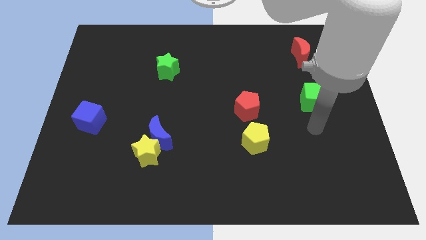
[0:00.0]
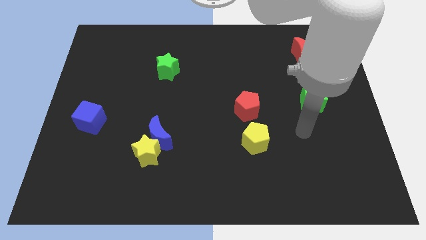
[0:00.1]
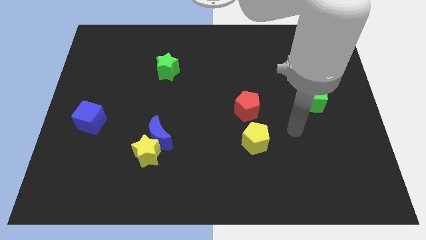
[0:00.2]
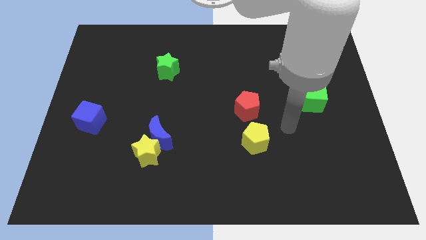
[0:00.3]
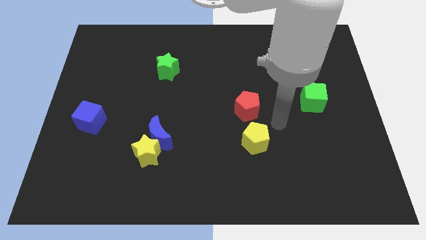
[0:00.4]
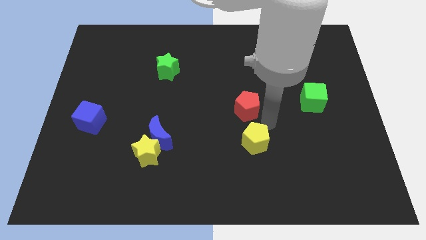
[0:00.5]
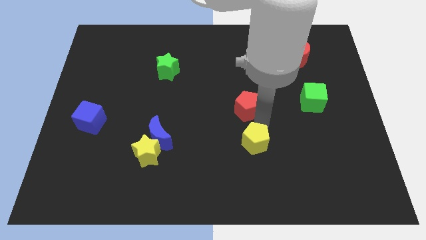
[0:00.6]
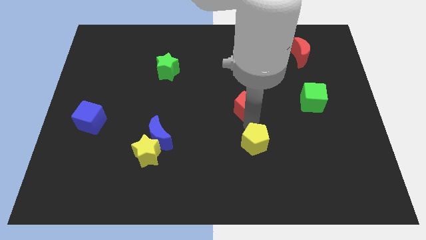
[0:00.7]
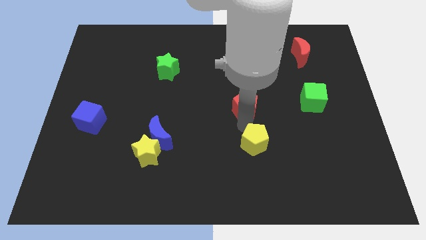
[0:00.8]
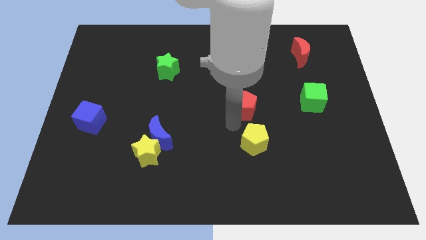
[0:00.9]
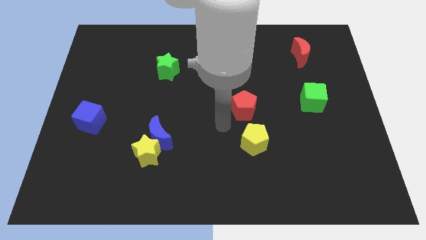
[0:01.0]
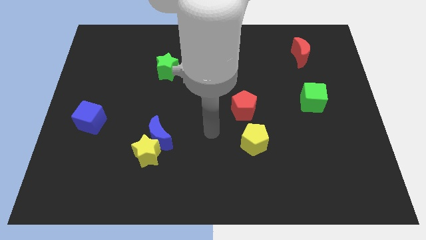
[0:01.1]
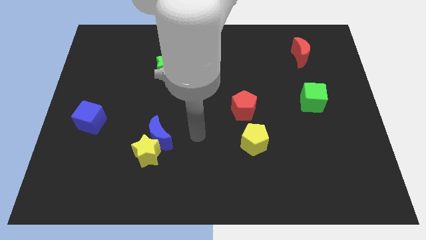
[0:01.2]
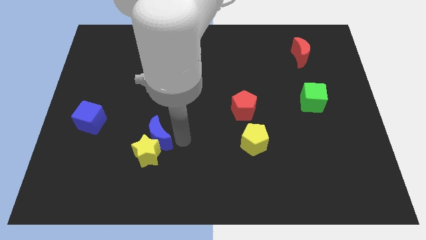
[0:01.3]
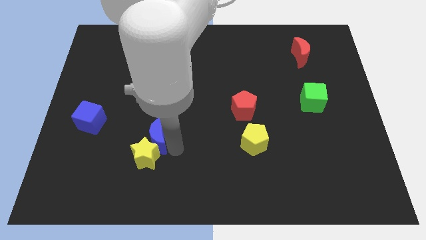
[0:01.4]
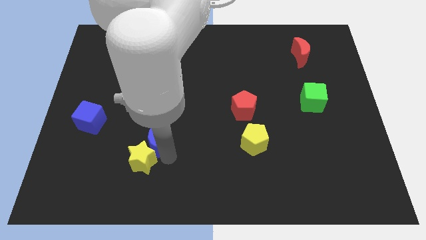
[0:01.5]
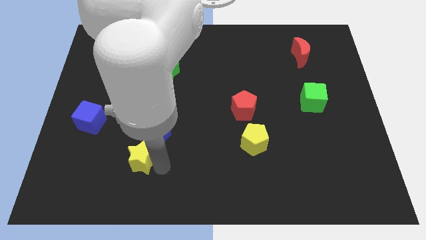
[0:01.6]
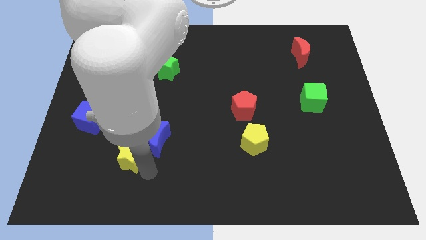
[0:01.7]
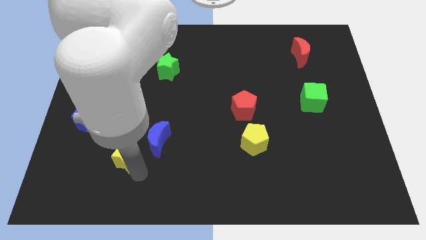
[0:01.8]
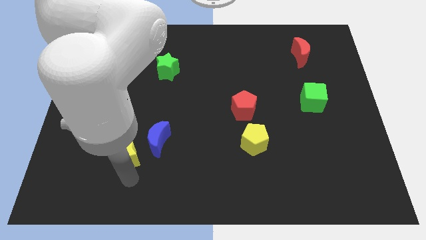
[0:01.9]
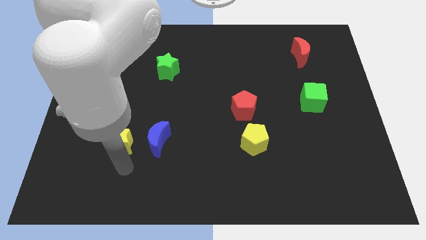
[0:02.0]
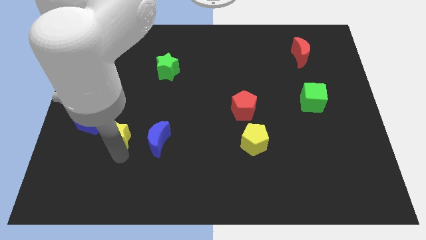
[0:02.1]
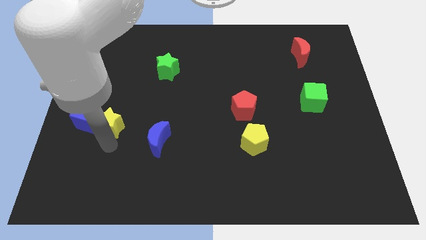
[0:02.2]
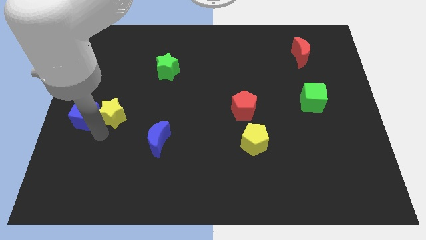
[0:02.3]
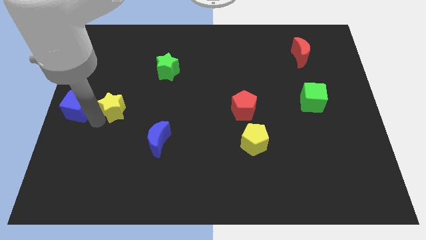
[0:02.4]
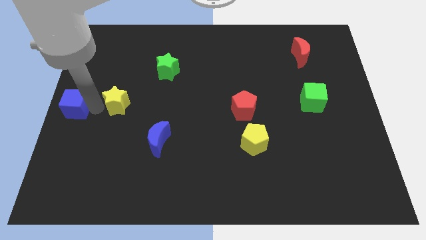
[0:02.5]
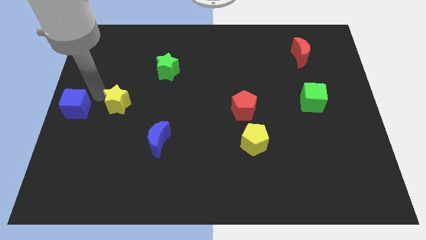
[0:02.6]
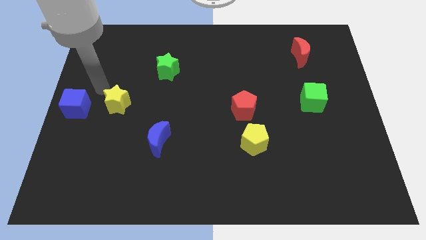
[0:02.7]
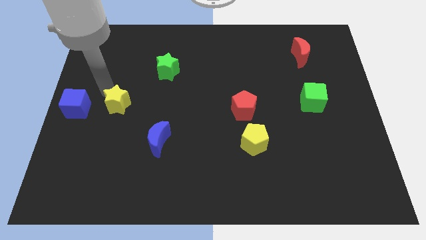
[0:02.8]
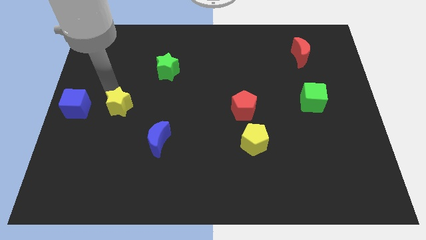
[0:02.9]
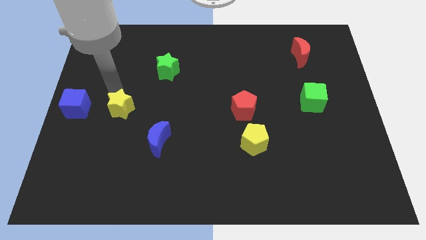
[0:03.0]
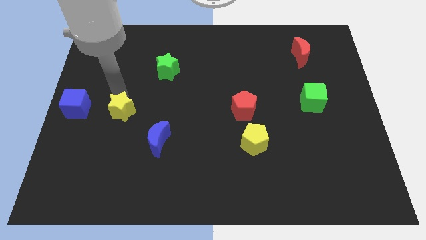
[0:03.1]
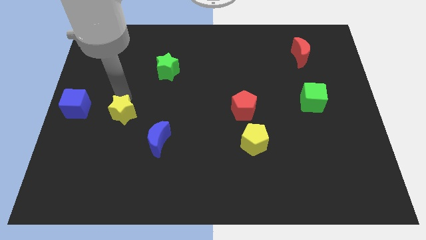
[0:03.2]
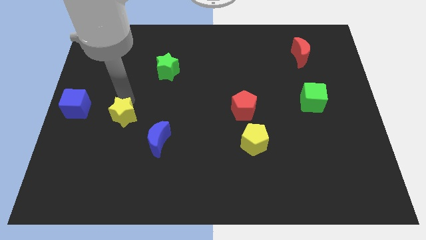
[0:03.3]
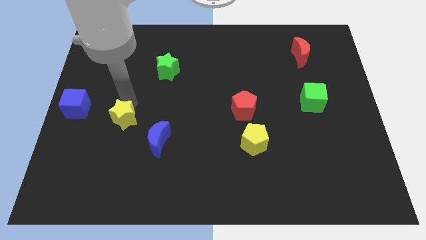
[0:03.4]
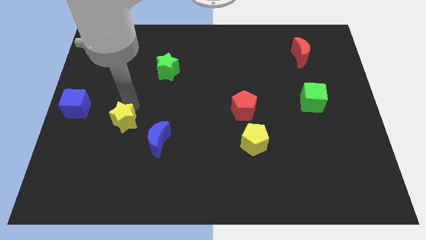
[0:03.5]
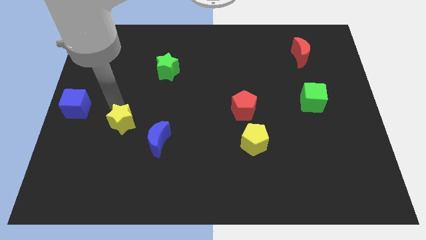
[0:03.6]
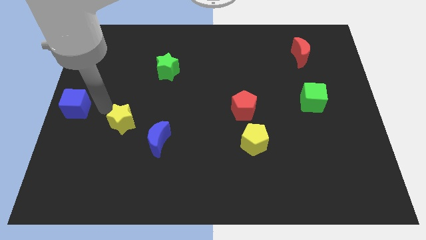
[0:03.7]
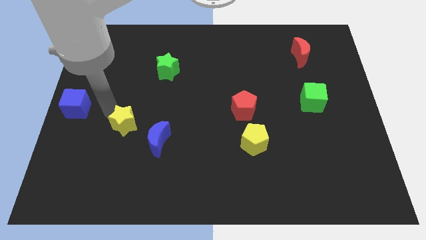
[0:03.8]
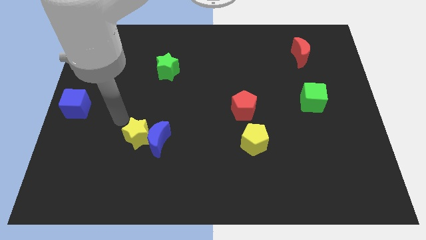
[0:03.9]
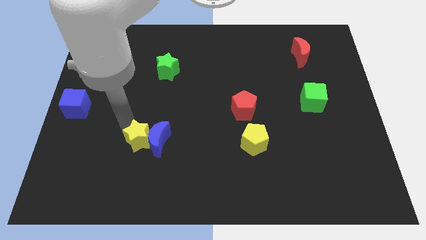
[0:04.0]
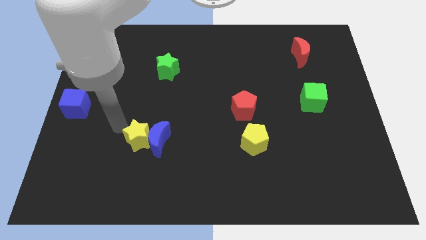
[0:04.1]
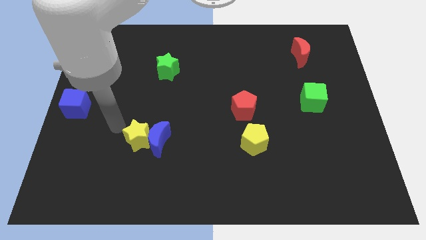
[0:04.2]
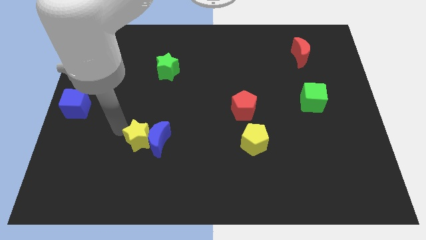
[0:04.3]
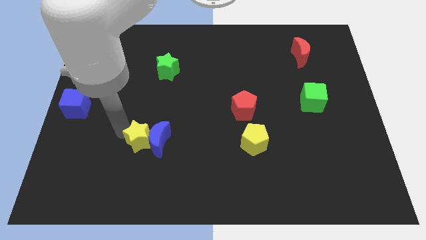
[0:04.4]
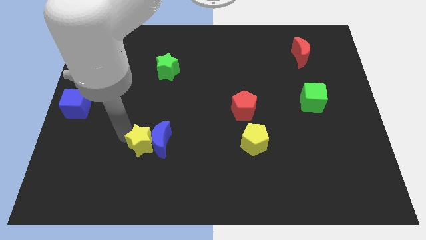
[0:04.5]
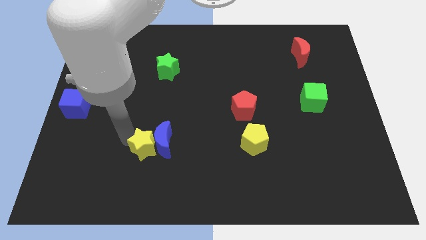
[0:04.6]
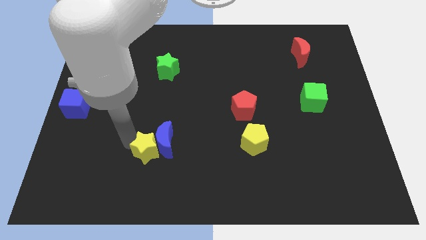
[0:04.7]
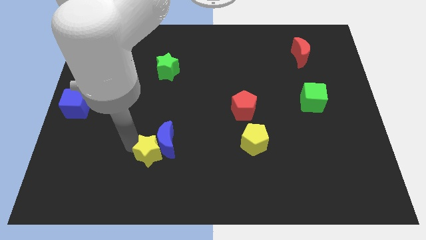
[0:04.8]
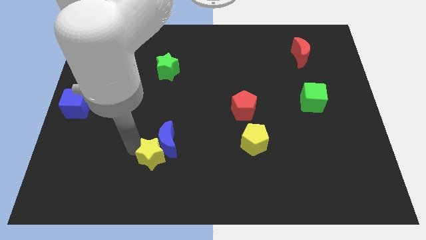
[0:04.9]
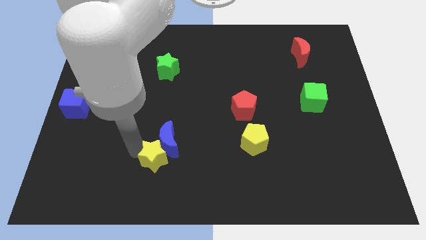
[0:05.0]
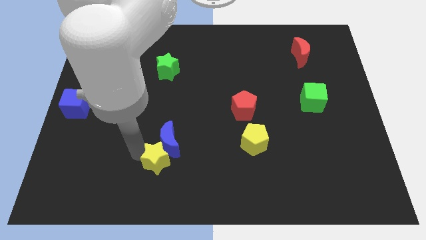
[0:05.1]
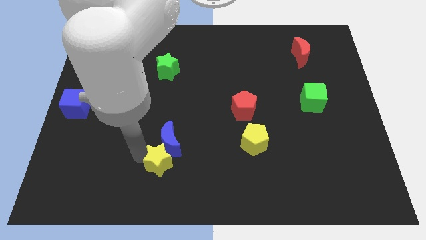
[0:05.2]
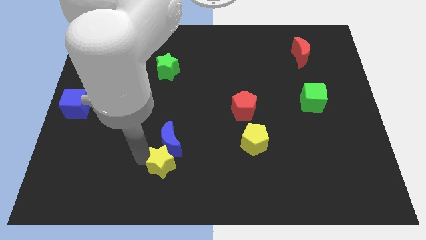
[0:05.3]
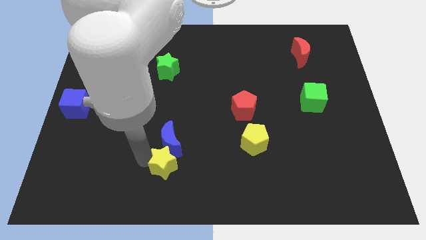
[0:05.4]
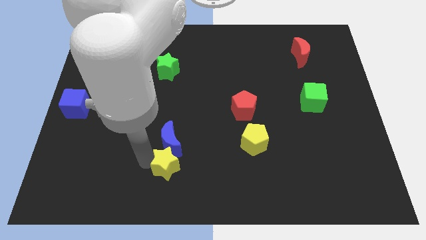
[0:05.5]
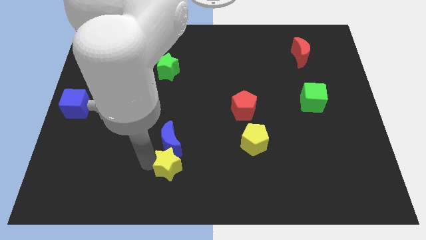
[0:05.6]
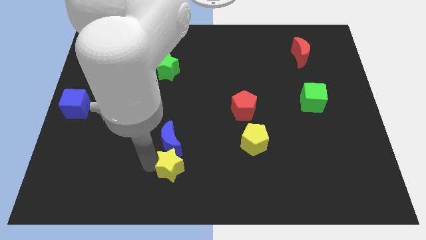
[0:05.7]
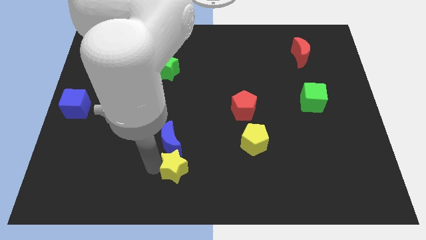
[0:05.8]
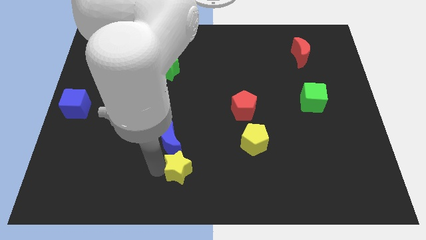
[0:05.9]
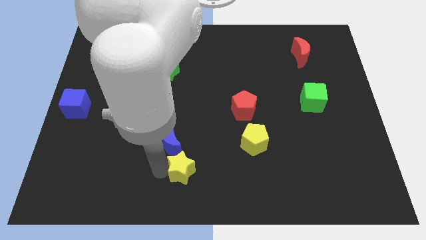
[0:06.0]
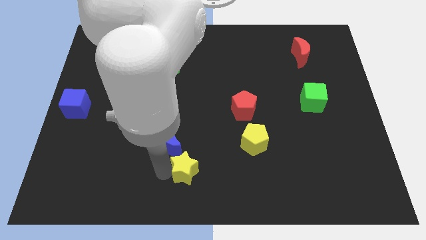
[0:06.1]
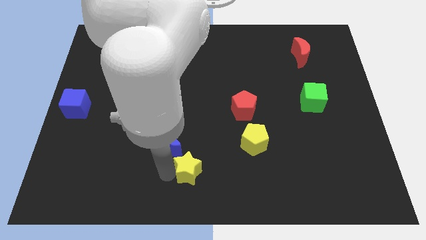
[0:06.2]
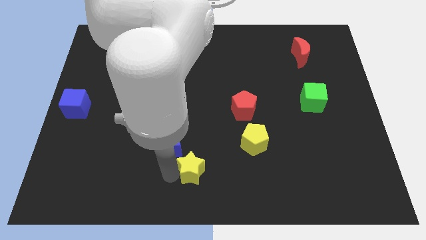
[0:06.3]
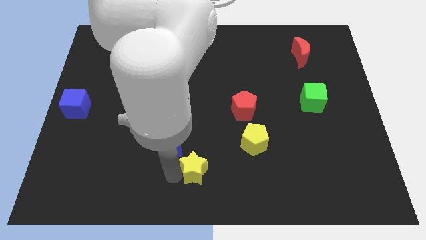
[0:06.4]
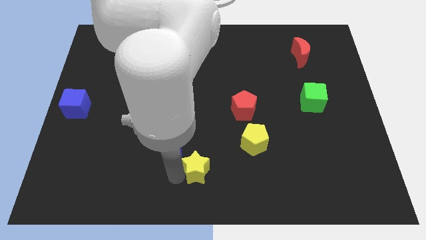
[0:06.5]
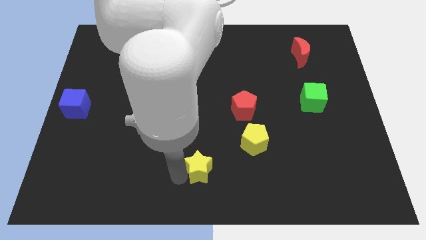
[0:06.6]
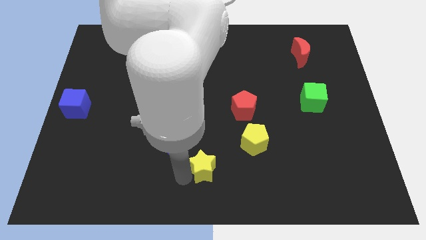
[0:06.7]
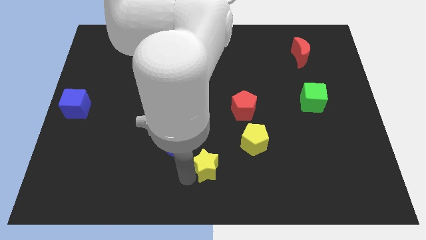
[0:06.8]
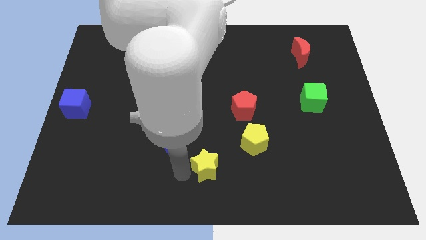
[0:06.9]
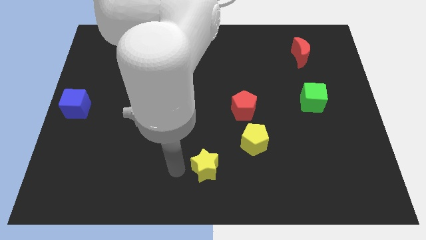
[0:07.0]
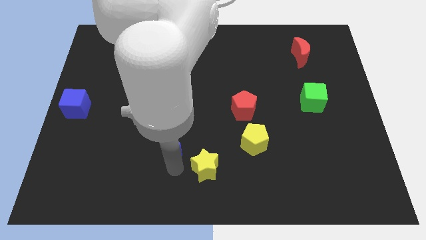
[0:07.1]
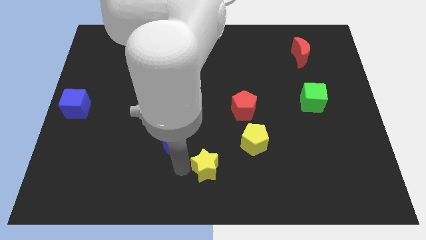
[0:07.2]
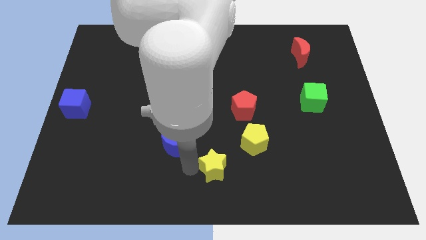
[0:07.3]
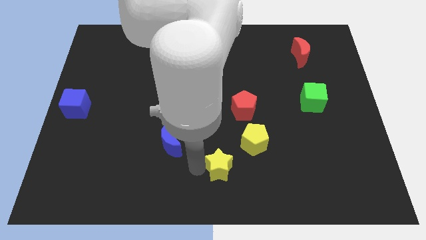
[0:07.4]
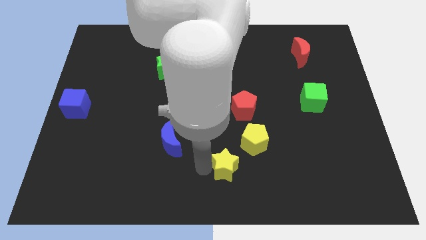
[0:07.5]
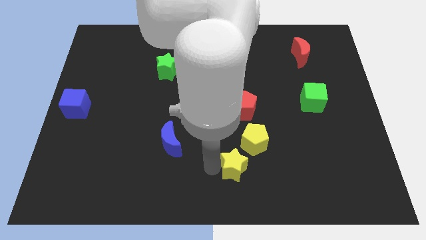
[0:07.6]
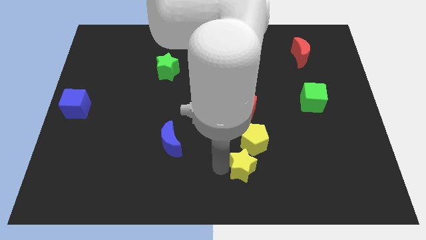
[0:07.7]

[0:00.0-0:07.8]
move the yellow star to the right
